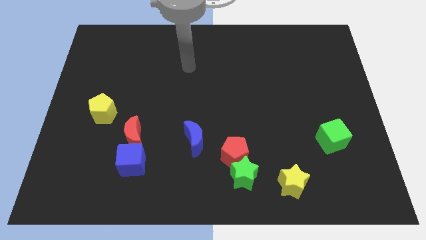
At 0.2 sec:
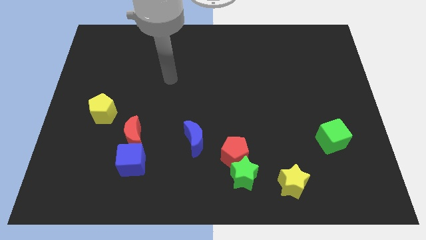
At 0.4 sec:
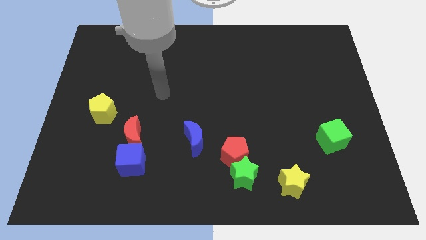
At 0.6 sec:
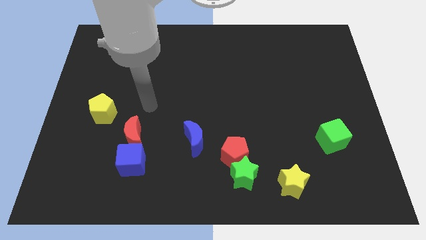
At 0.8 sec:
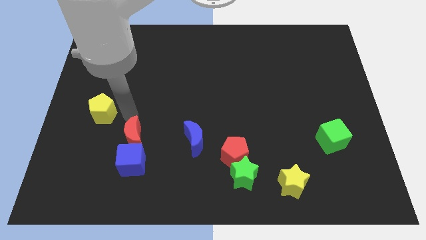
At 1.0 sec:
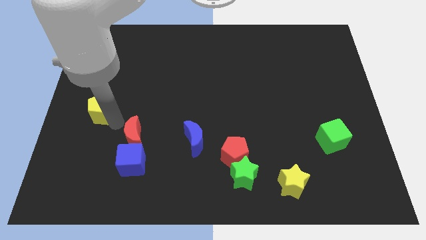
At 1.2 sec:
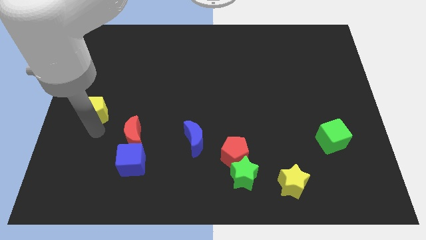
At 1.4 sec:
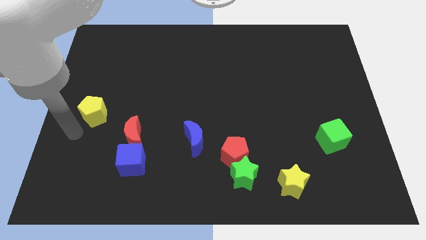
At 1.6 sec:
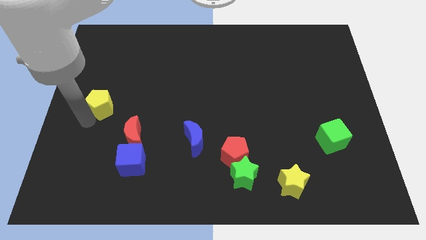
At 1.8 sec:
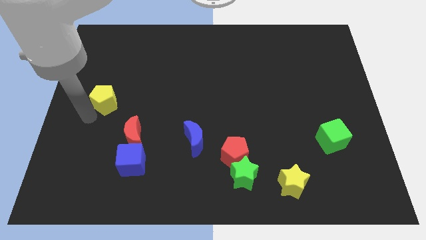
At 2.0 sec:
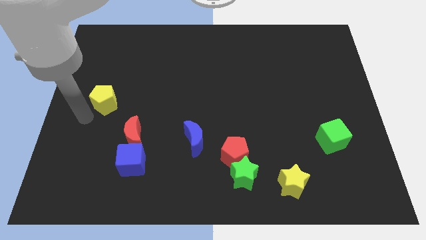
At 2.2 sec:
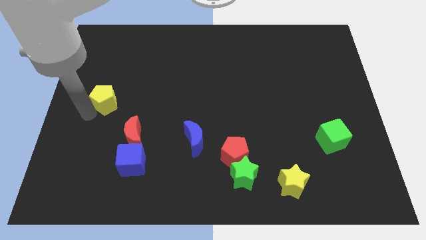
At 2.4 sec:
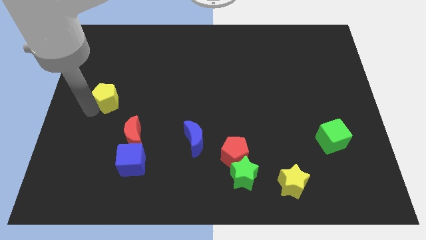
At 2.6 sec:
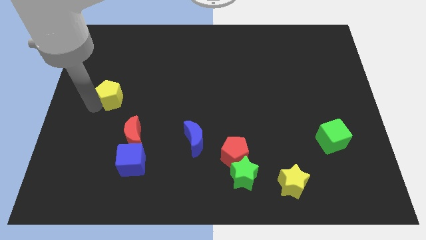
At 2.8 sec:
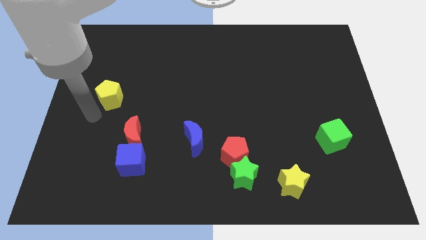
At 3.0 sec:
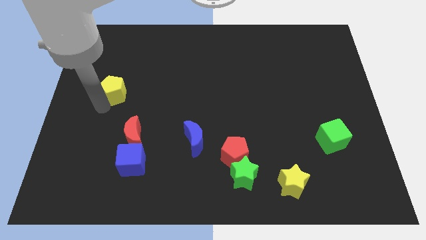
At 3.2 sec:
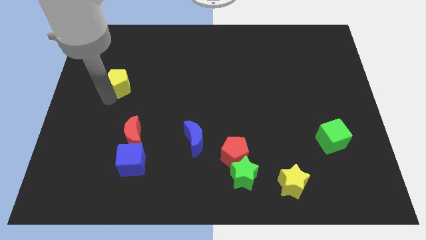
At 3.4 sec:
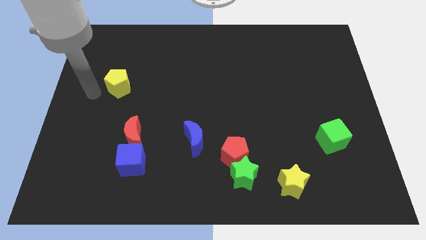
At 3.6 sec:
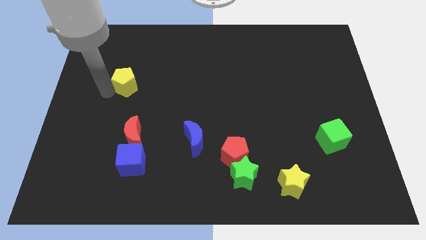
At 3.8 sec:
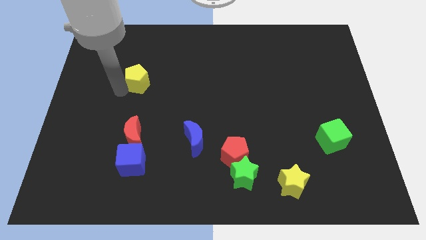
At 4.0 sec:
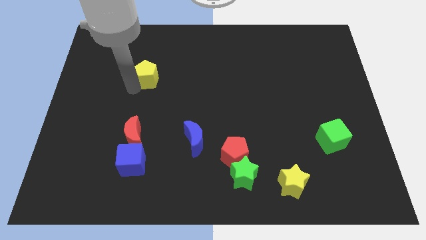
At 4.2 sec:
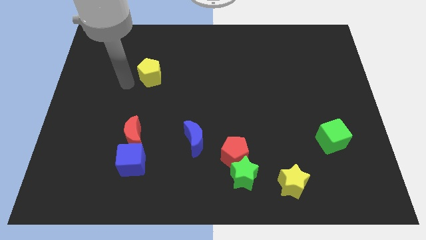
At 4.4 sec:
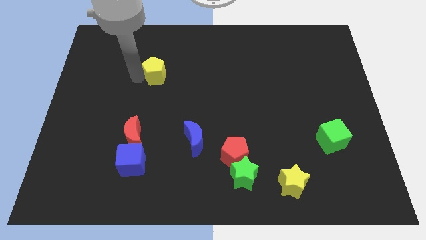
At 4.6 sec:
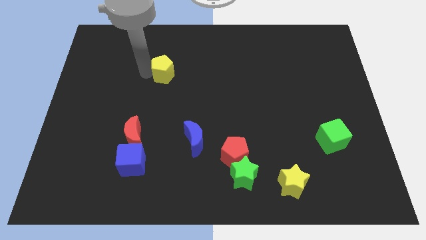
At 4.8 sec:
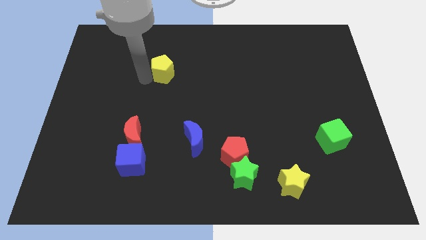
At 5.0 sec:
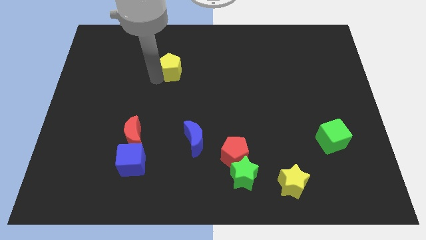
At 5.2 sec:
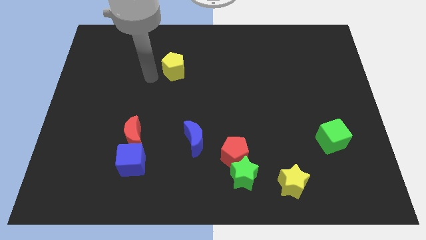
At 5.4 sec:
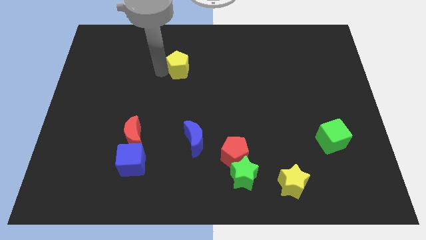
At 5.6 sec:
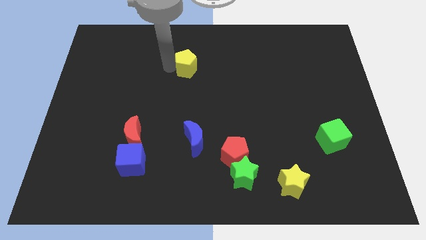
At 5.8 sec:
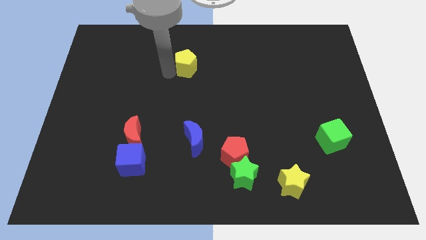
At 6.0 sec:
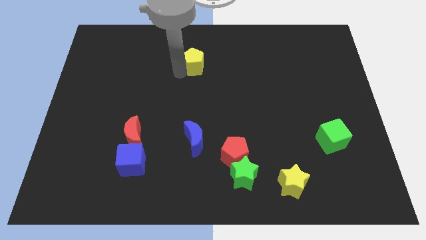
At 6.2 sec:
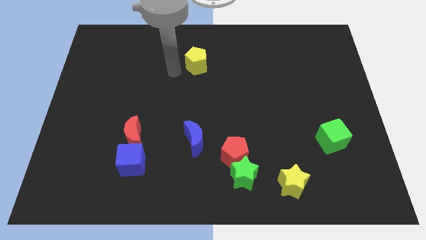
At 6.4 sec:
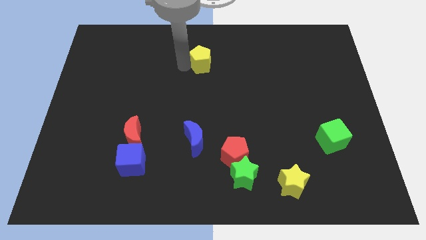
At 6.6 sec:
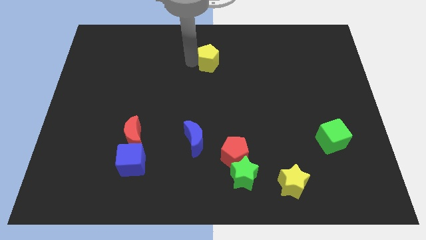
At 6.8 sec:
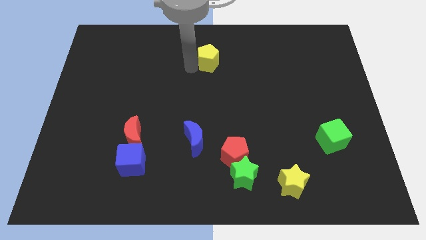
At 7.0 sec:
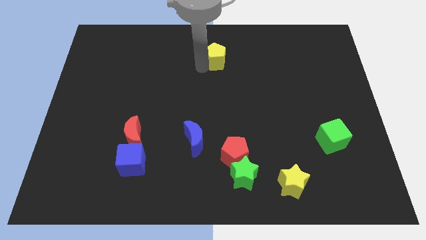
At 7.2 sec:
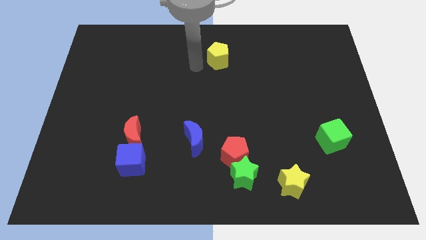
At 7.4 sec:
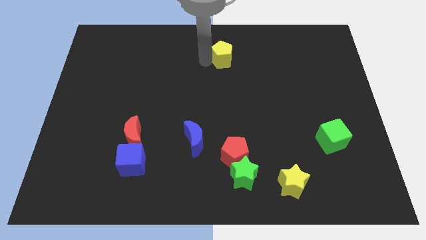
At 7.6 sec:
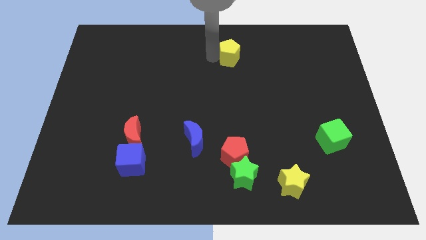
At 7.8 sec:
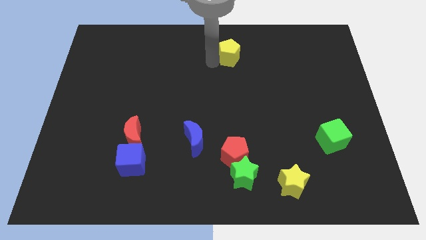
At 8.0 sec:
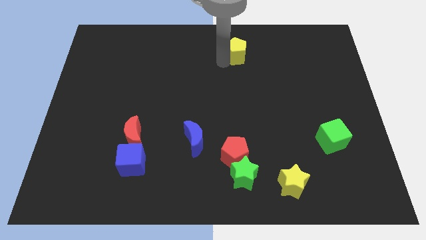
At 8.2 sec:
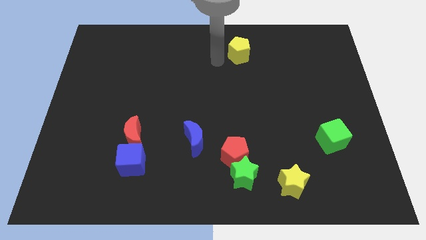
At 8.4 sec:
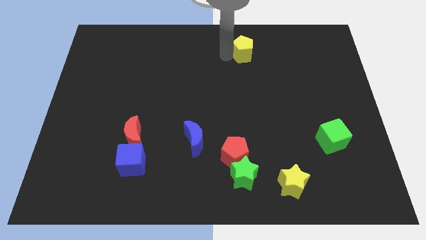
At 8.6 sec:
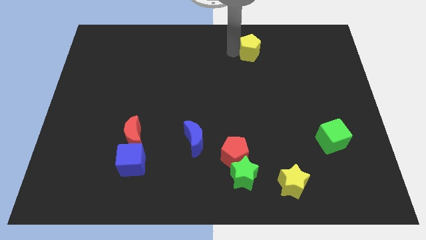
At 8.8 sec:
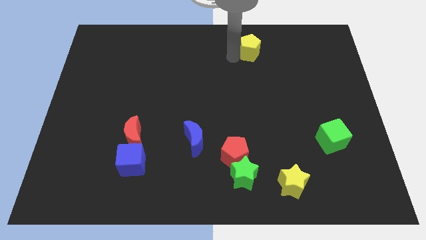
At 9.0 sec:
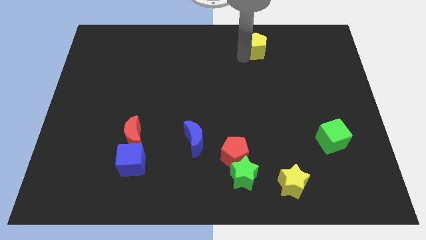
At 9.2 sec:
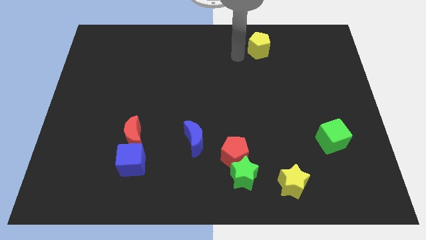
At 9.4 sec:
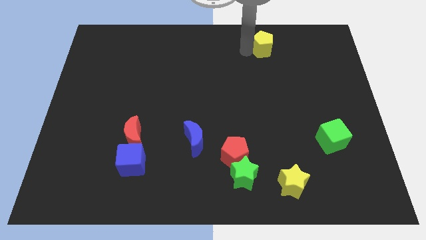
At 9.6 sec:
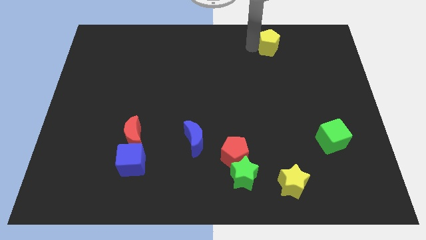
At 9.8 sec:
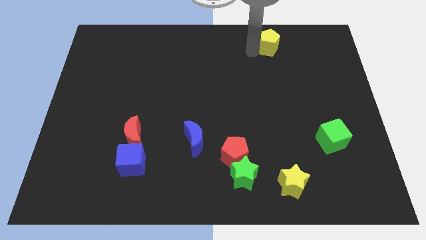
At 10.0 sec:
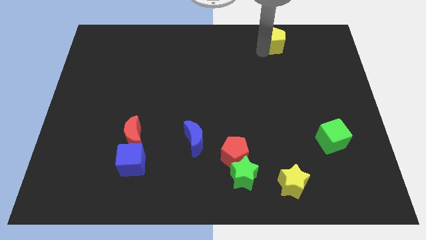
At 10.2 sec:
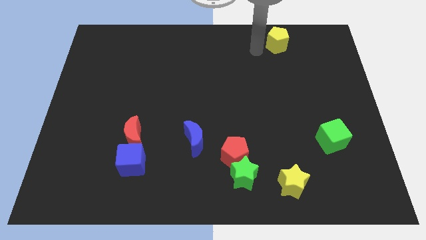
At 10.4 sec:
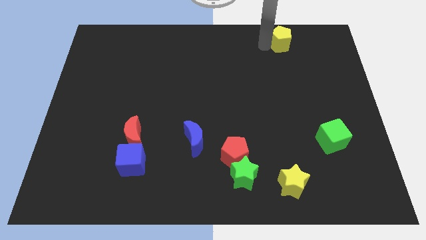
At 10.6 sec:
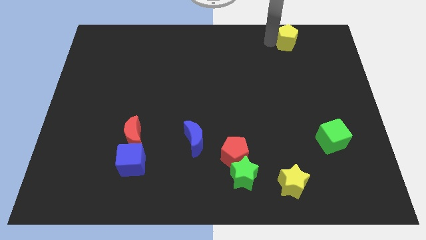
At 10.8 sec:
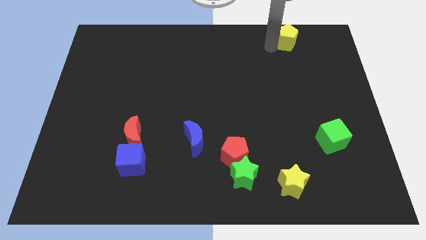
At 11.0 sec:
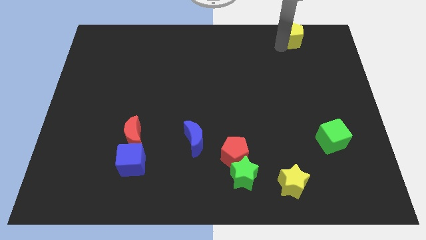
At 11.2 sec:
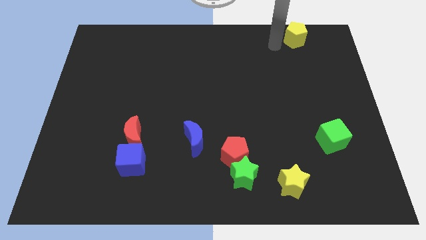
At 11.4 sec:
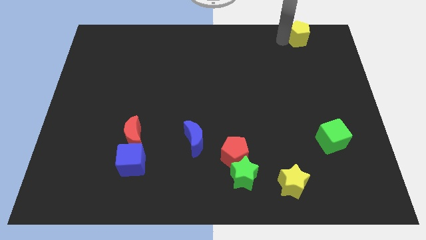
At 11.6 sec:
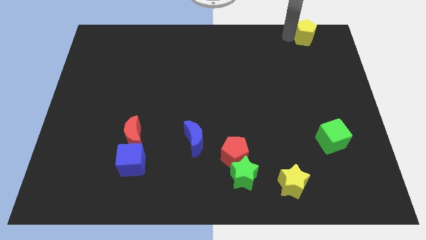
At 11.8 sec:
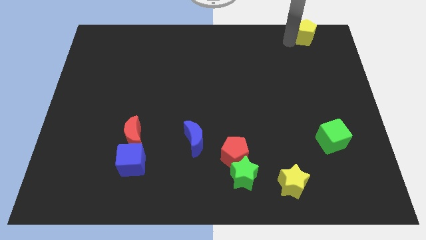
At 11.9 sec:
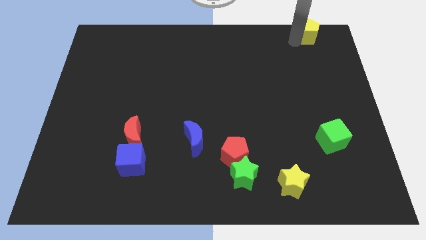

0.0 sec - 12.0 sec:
slide the yellow pentagon to the top right corner

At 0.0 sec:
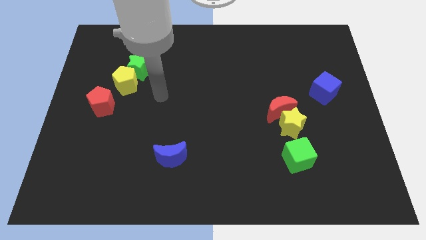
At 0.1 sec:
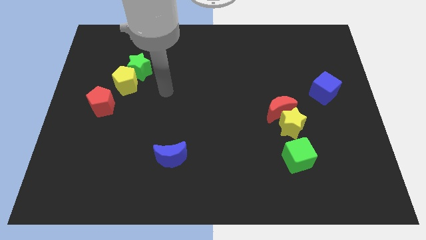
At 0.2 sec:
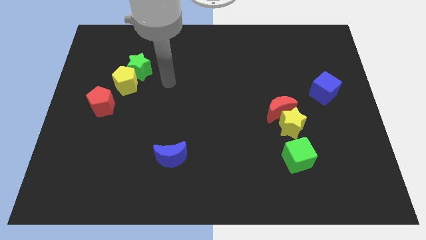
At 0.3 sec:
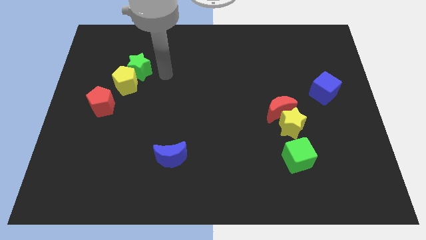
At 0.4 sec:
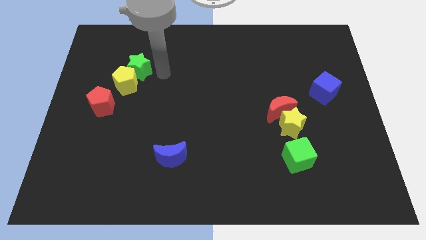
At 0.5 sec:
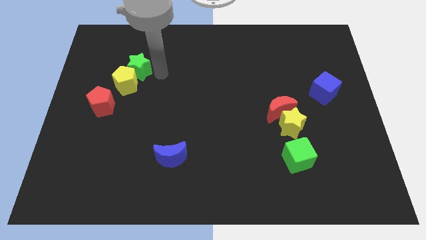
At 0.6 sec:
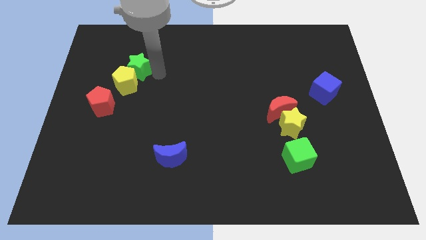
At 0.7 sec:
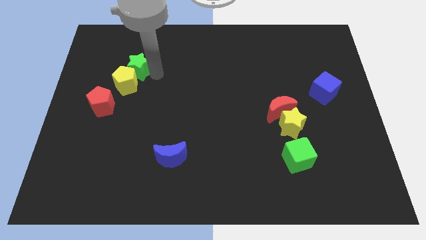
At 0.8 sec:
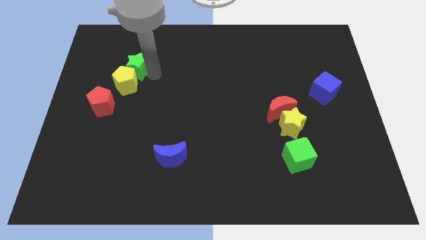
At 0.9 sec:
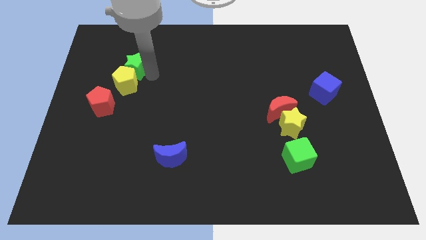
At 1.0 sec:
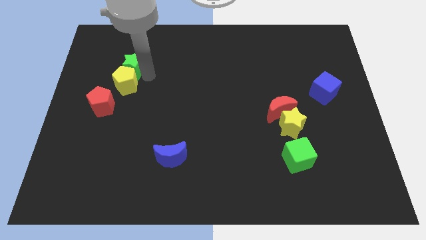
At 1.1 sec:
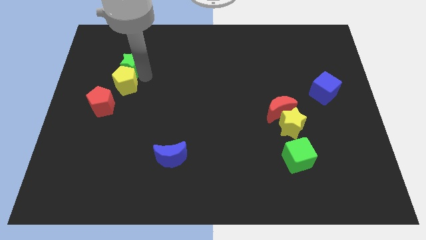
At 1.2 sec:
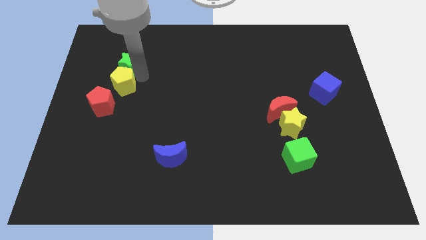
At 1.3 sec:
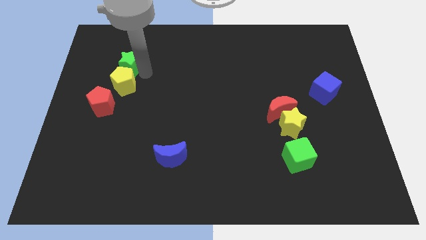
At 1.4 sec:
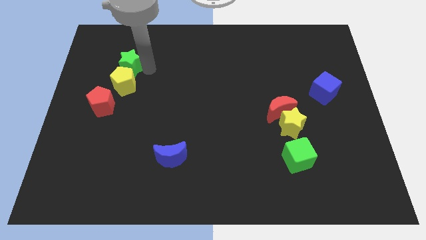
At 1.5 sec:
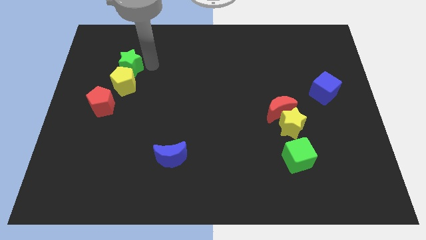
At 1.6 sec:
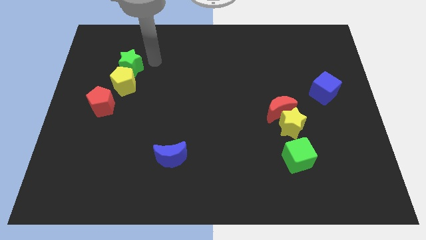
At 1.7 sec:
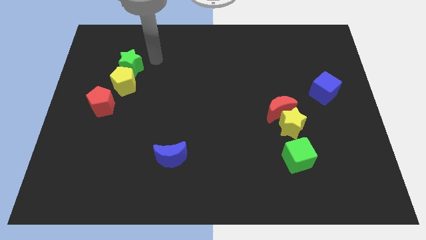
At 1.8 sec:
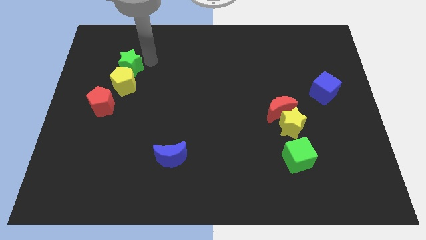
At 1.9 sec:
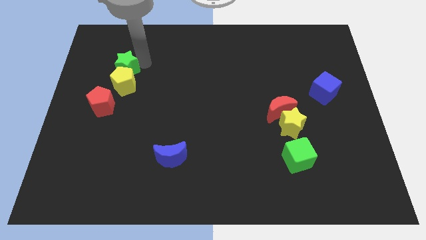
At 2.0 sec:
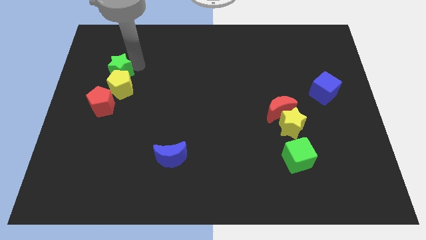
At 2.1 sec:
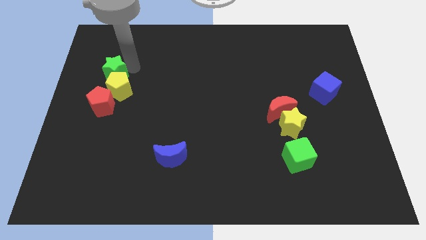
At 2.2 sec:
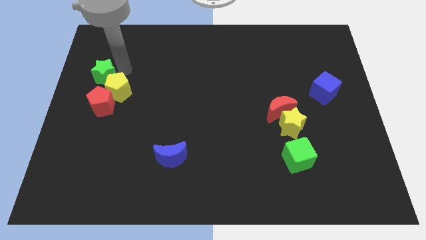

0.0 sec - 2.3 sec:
push the green star to the center left
